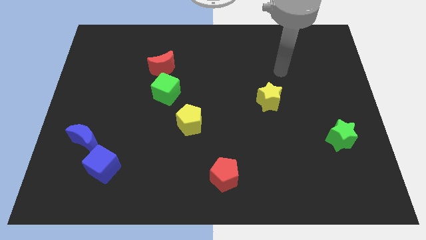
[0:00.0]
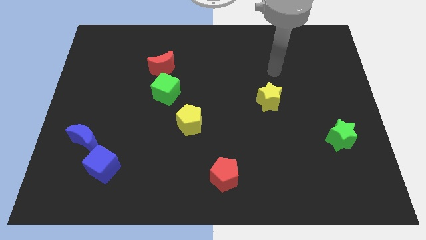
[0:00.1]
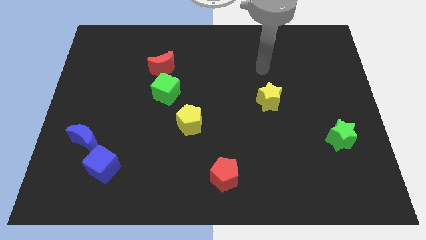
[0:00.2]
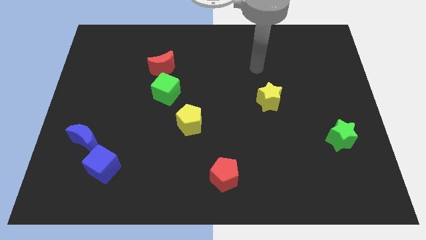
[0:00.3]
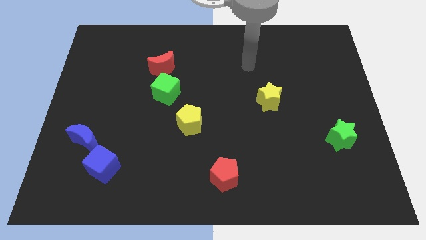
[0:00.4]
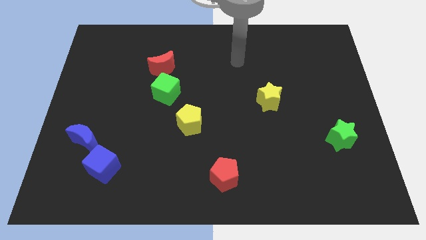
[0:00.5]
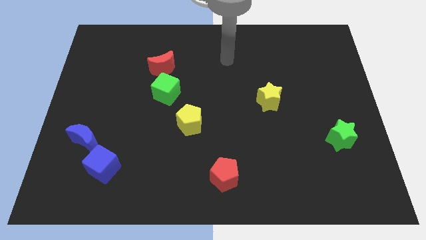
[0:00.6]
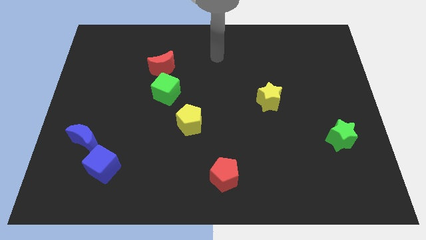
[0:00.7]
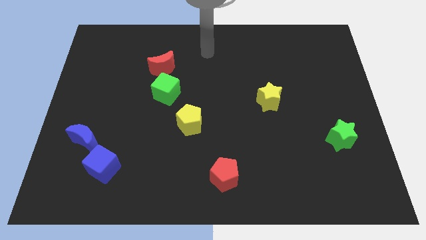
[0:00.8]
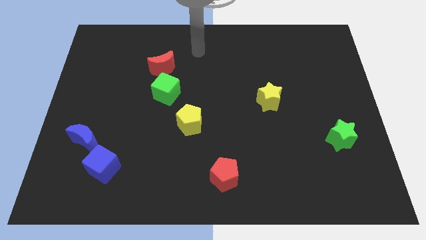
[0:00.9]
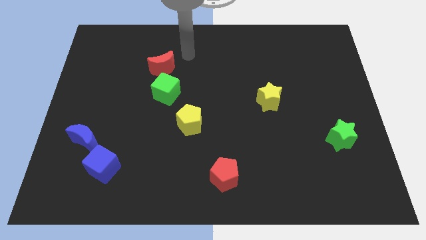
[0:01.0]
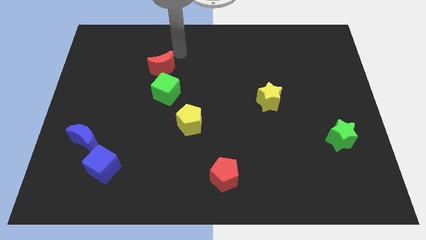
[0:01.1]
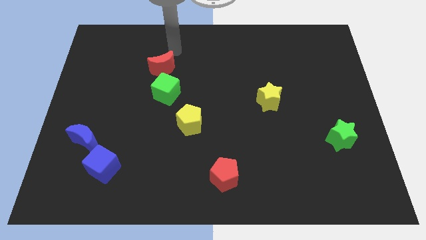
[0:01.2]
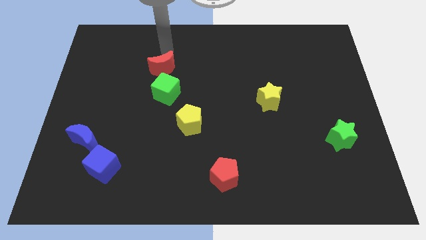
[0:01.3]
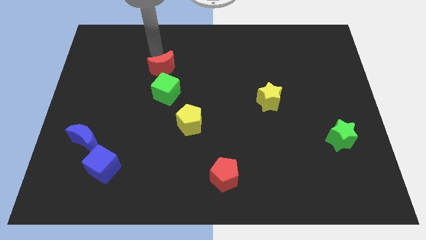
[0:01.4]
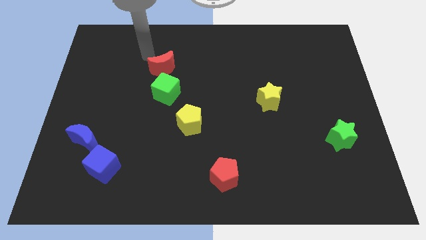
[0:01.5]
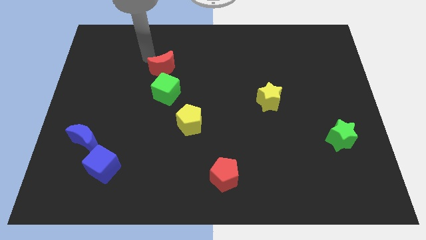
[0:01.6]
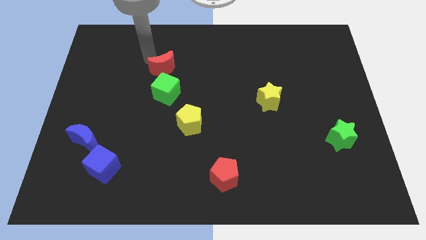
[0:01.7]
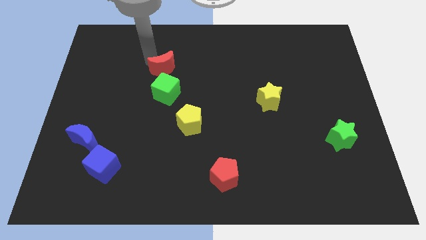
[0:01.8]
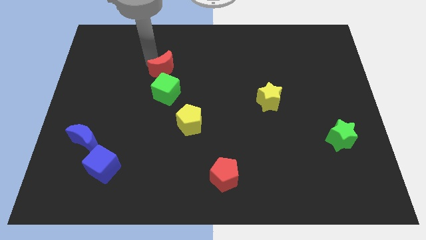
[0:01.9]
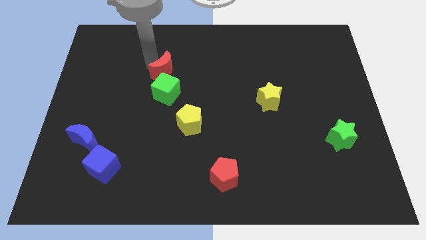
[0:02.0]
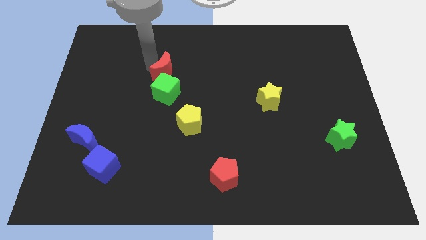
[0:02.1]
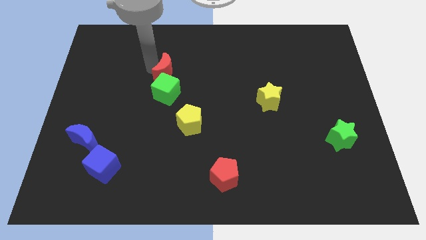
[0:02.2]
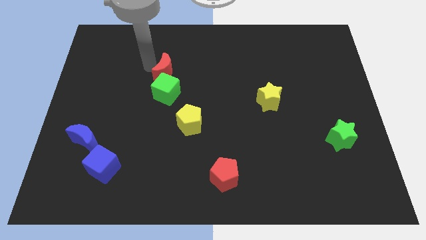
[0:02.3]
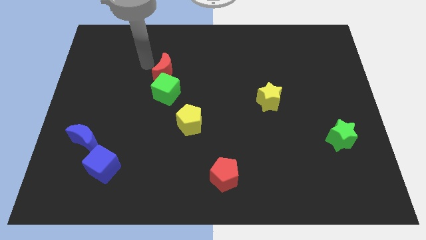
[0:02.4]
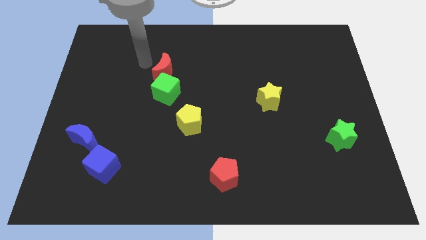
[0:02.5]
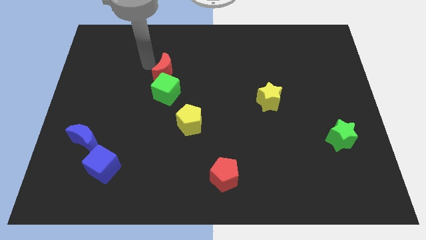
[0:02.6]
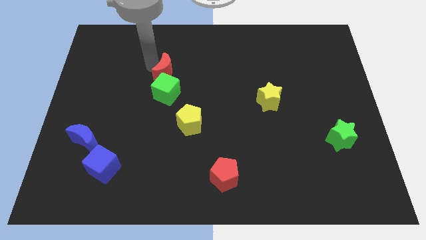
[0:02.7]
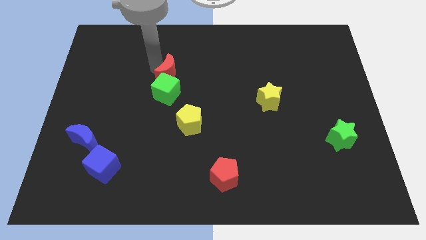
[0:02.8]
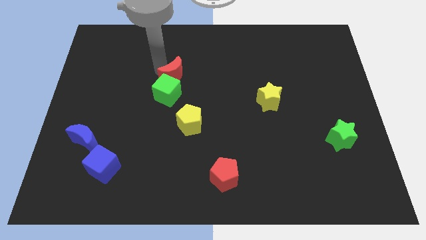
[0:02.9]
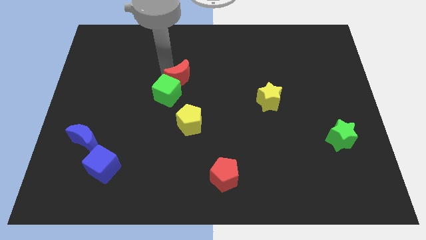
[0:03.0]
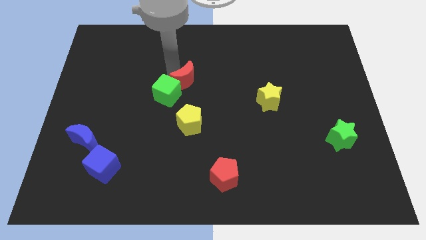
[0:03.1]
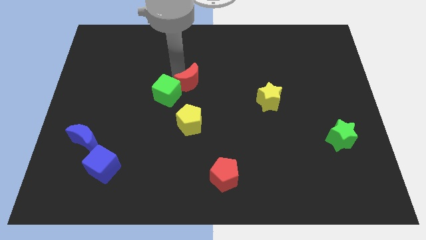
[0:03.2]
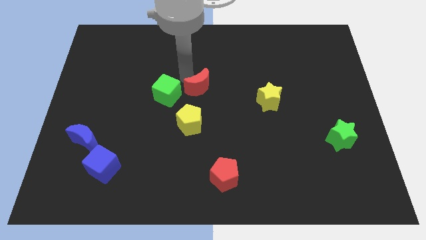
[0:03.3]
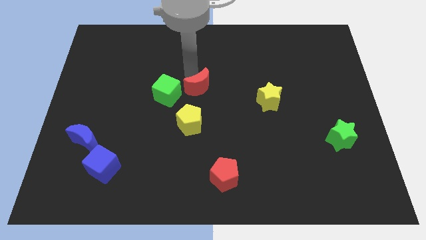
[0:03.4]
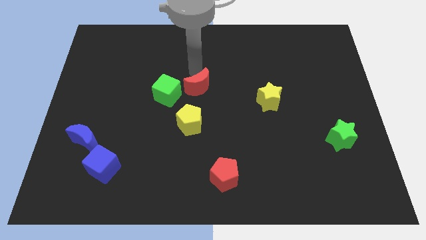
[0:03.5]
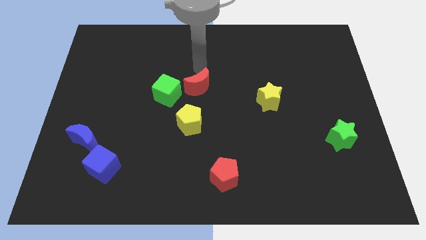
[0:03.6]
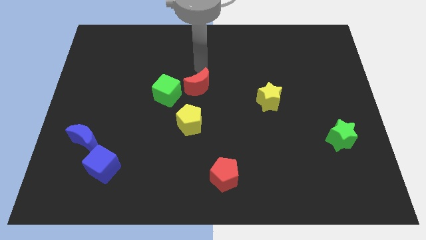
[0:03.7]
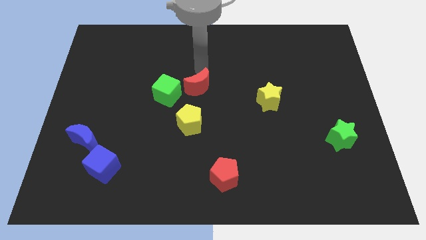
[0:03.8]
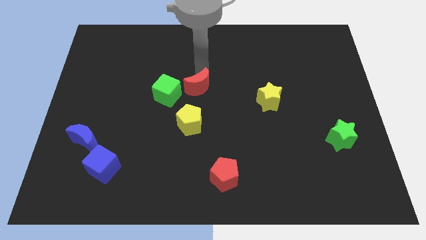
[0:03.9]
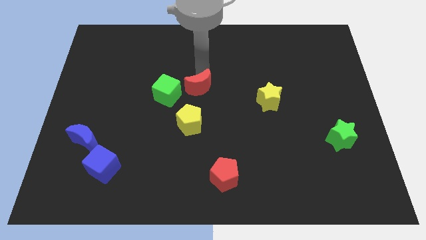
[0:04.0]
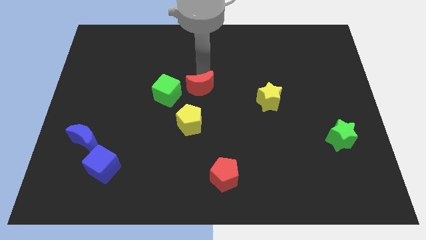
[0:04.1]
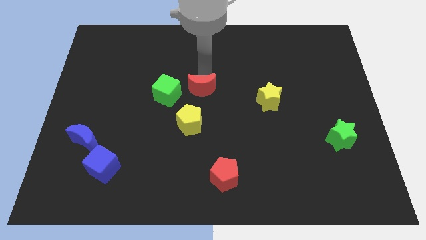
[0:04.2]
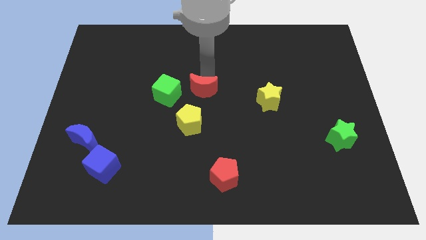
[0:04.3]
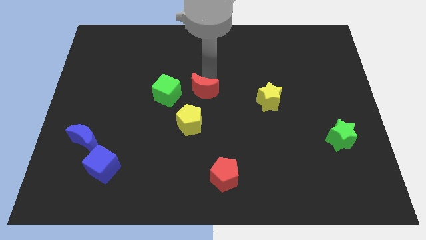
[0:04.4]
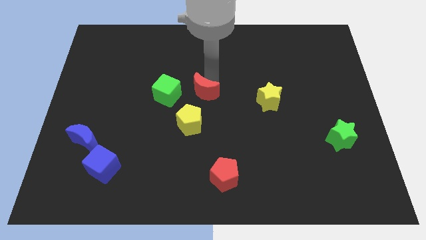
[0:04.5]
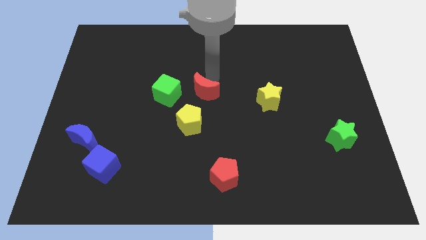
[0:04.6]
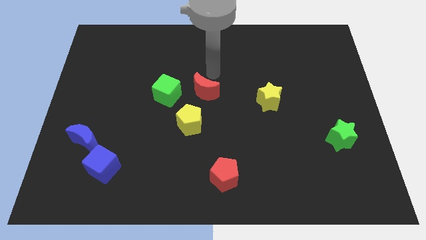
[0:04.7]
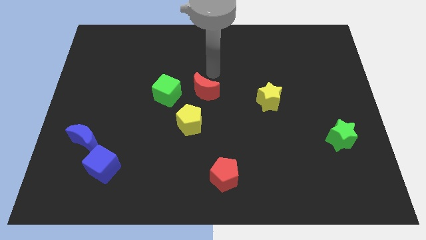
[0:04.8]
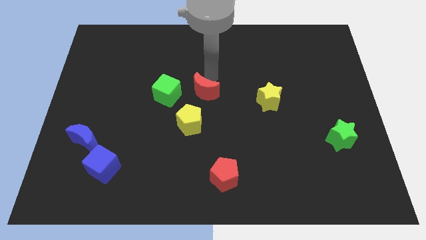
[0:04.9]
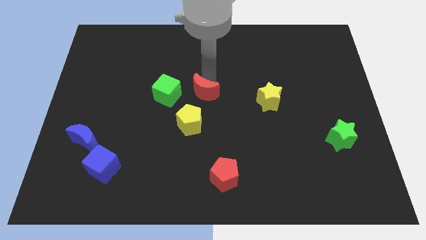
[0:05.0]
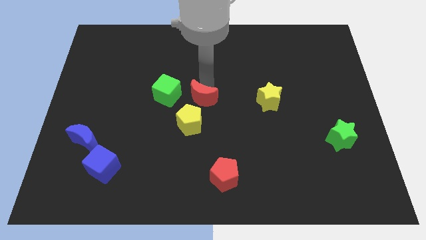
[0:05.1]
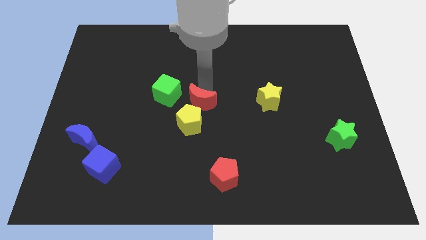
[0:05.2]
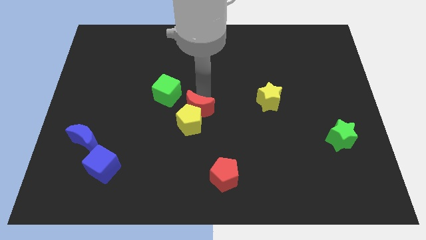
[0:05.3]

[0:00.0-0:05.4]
slide the red moon close to the yellow pentagon

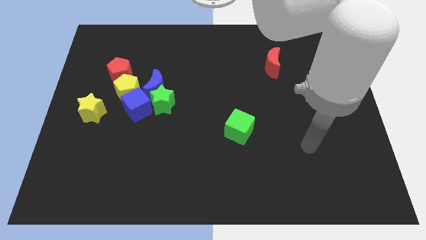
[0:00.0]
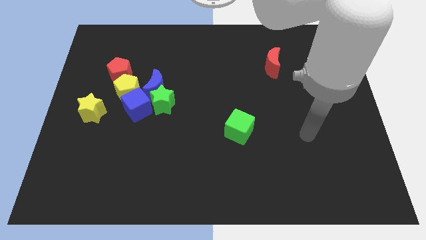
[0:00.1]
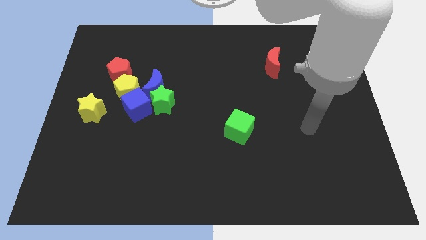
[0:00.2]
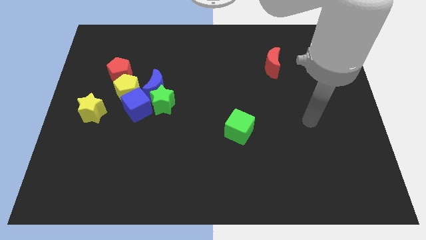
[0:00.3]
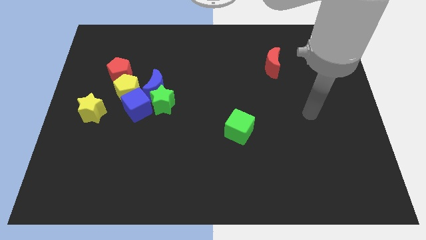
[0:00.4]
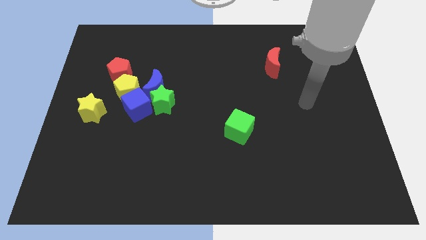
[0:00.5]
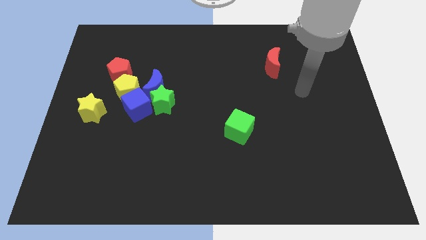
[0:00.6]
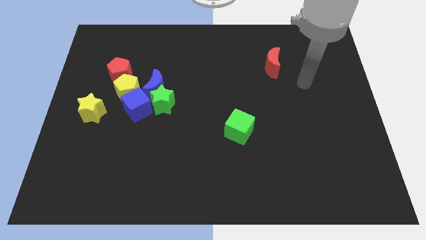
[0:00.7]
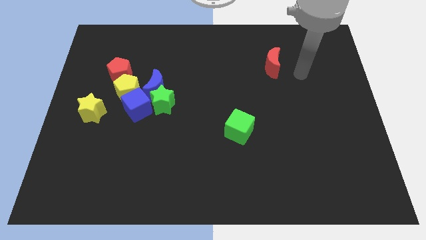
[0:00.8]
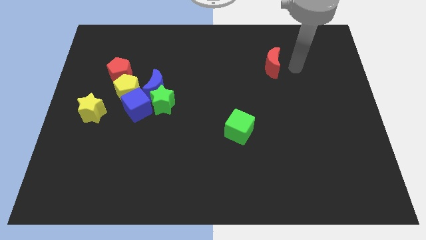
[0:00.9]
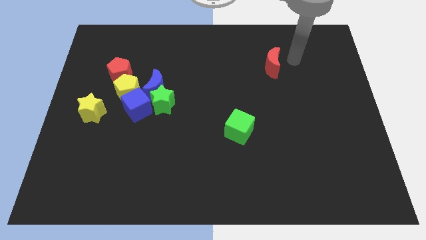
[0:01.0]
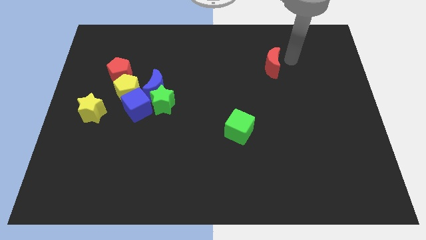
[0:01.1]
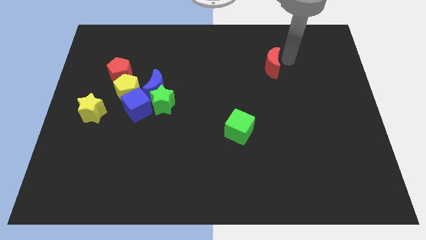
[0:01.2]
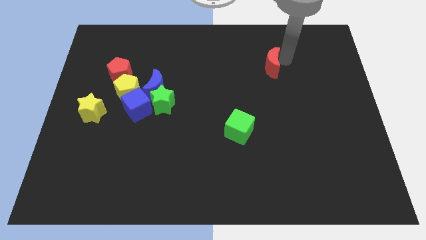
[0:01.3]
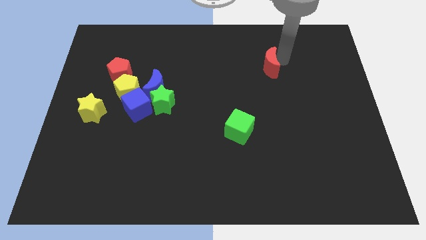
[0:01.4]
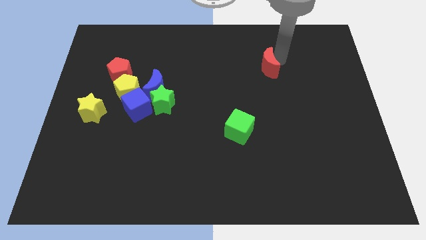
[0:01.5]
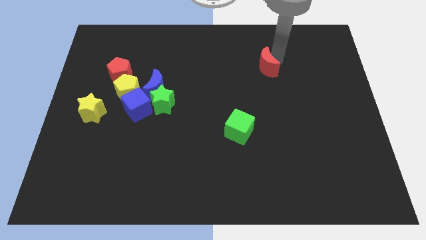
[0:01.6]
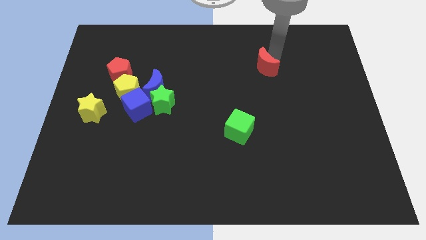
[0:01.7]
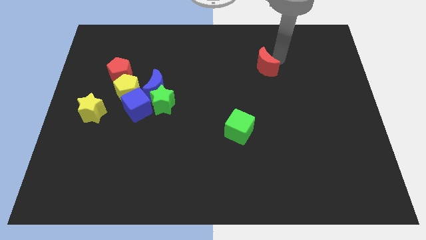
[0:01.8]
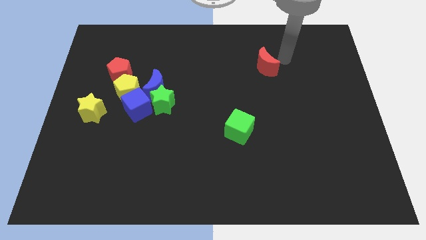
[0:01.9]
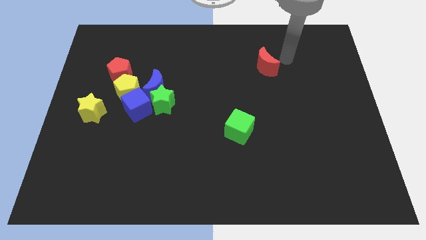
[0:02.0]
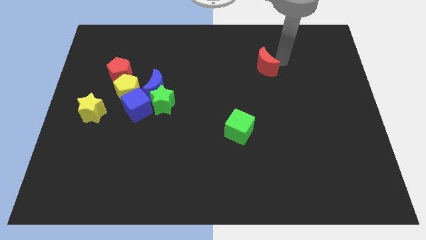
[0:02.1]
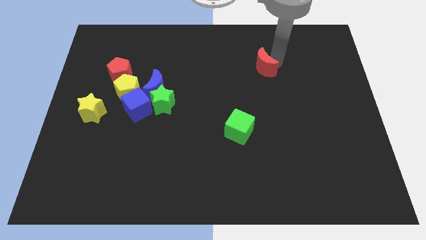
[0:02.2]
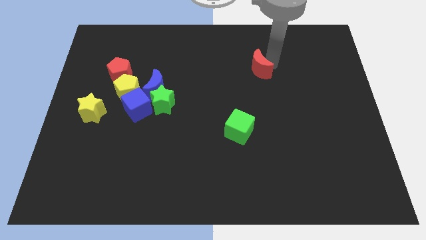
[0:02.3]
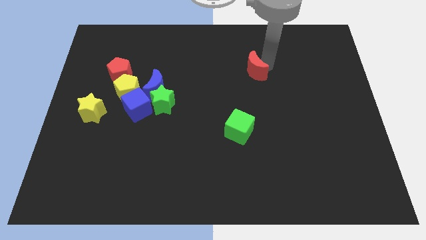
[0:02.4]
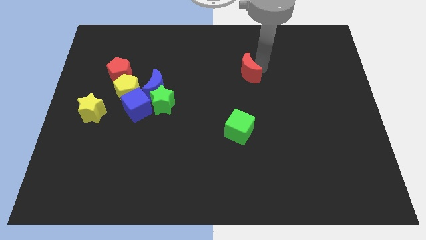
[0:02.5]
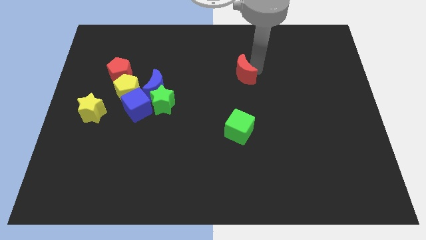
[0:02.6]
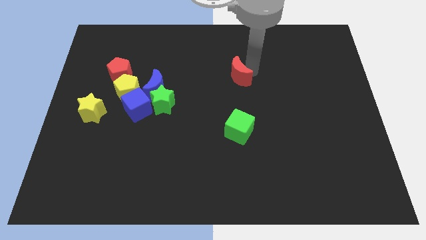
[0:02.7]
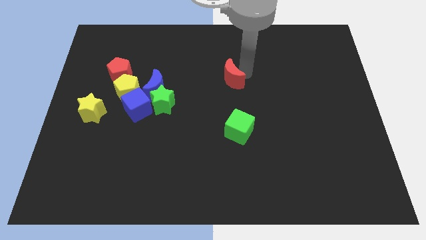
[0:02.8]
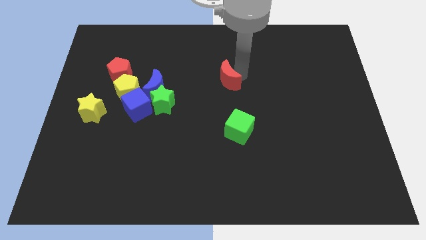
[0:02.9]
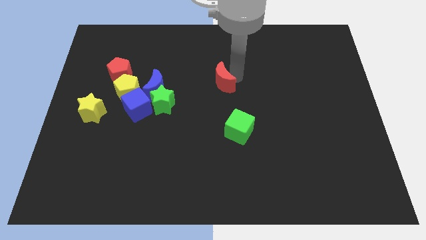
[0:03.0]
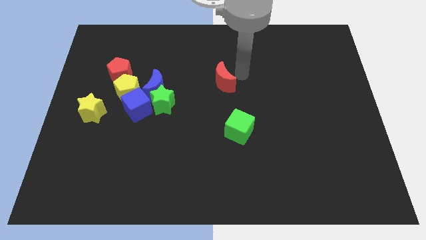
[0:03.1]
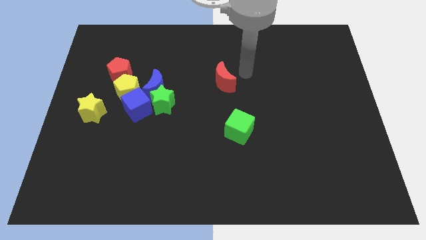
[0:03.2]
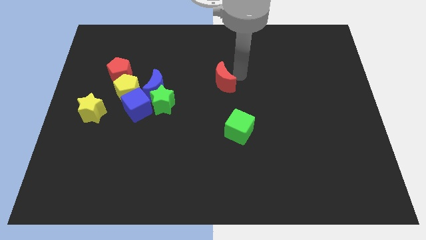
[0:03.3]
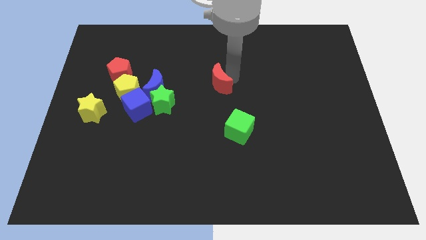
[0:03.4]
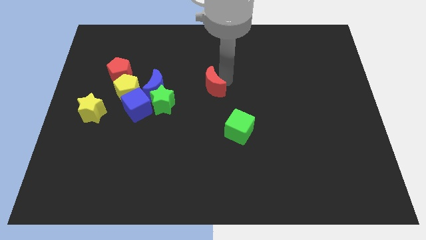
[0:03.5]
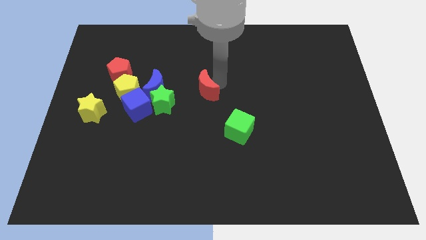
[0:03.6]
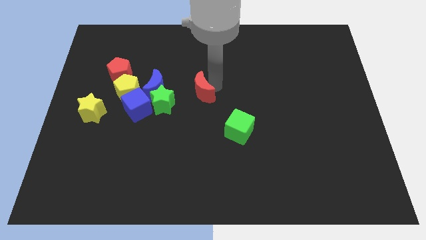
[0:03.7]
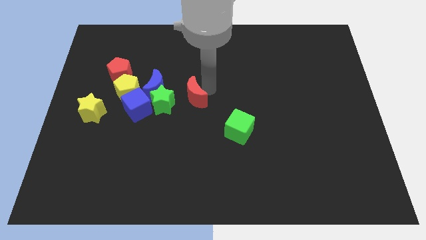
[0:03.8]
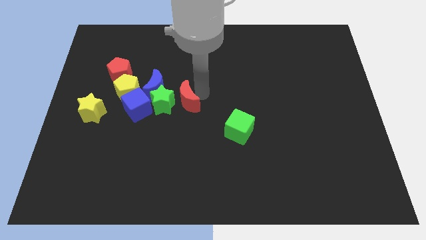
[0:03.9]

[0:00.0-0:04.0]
put the red moon close to the green star
